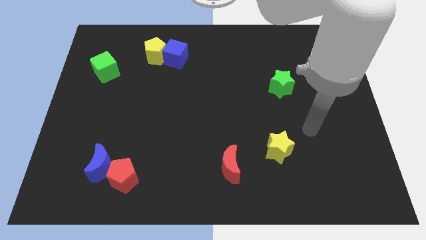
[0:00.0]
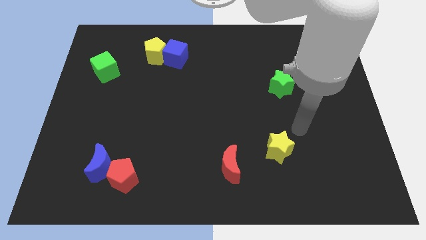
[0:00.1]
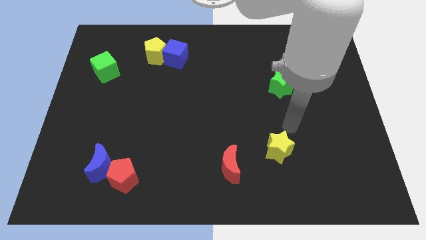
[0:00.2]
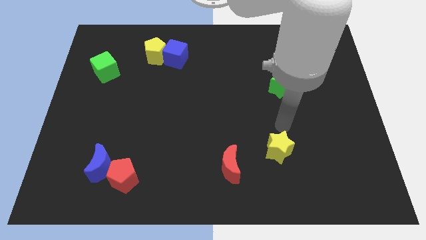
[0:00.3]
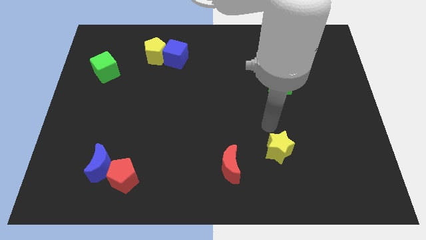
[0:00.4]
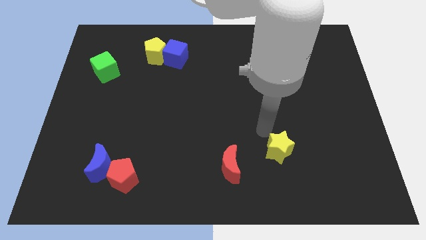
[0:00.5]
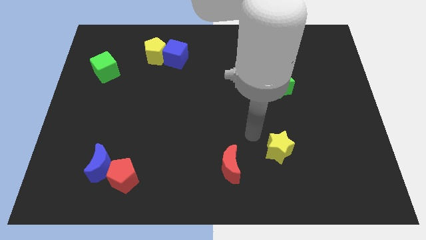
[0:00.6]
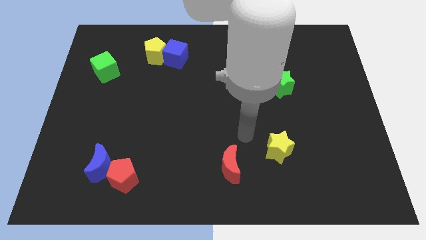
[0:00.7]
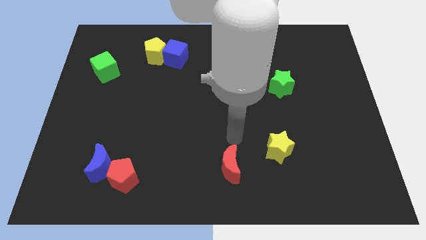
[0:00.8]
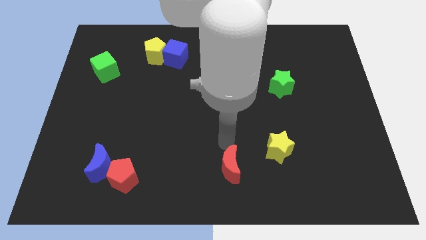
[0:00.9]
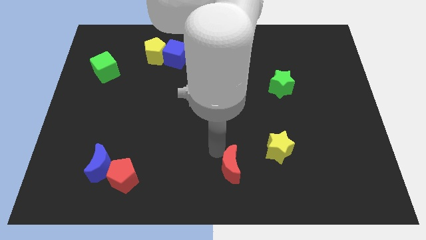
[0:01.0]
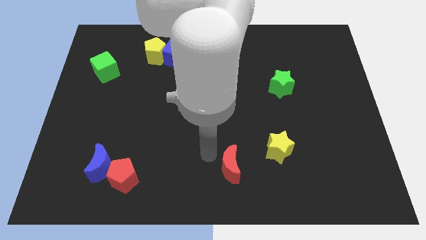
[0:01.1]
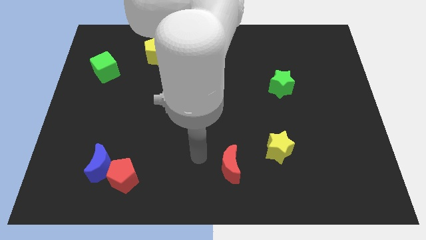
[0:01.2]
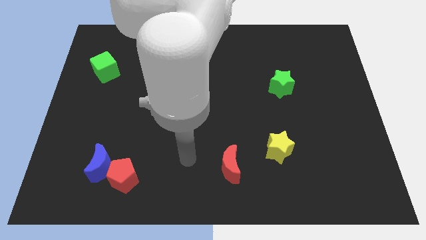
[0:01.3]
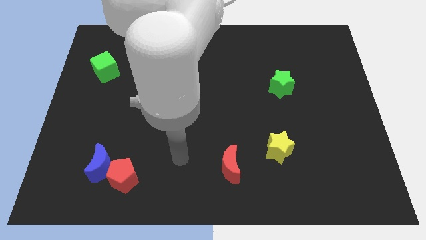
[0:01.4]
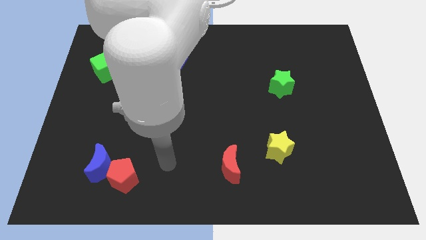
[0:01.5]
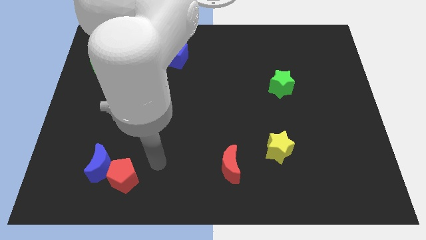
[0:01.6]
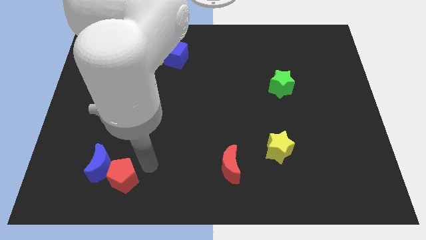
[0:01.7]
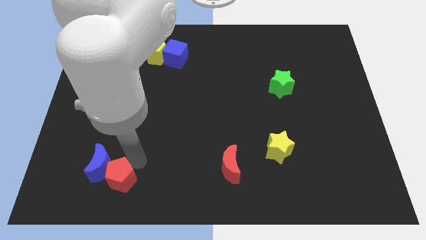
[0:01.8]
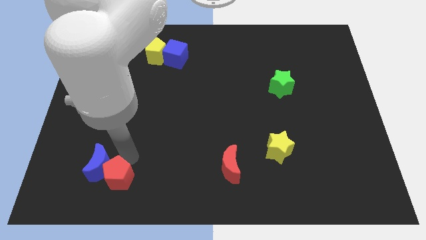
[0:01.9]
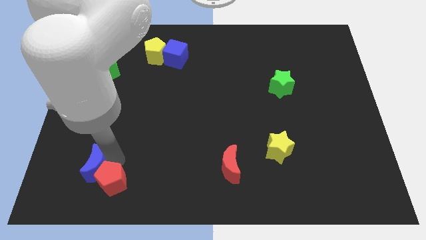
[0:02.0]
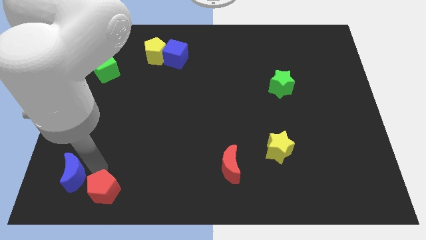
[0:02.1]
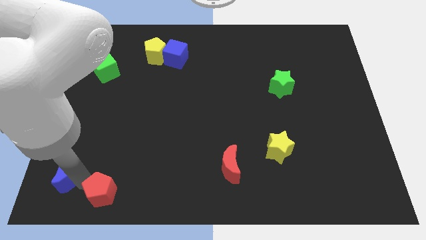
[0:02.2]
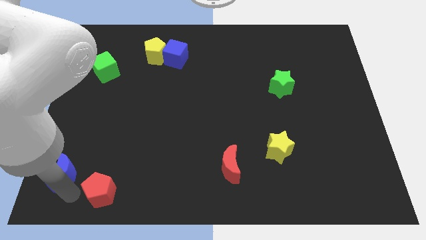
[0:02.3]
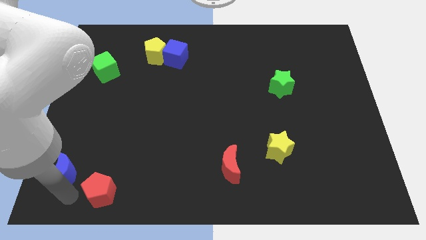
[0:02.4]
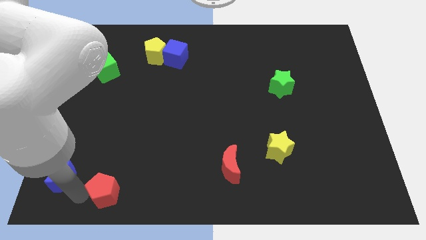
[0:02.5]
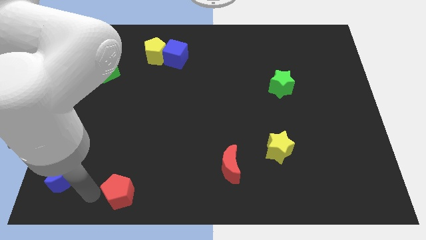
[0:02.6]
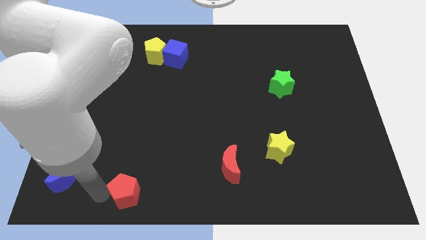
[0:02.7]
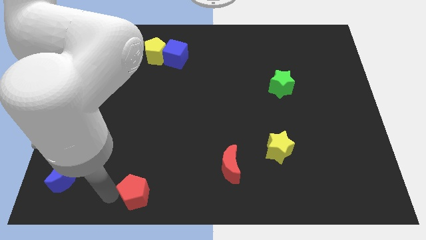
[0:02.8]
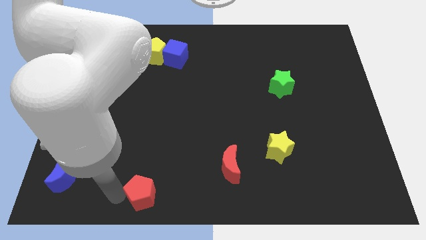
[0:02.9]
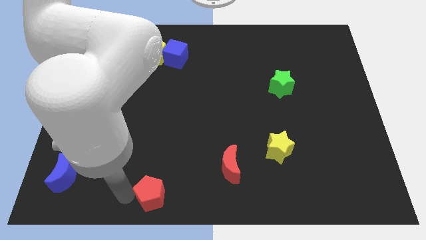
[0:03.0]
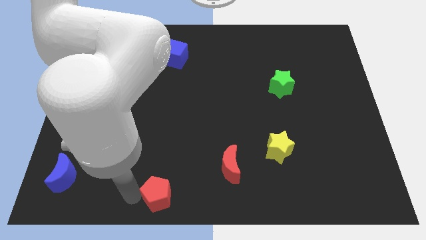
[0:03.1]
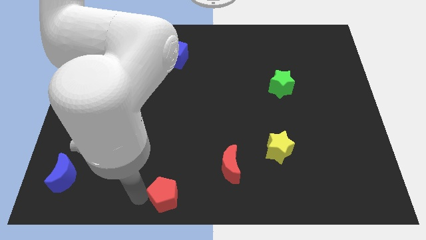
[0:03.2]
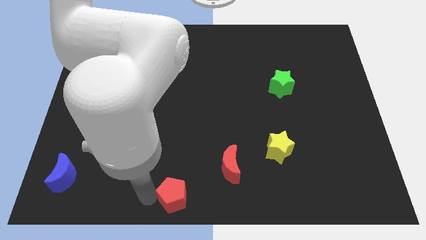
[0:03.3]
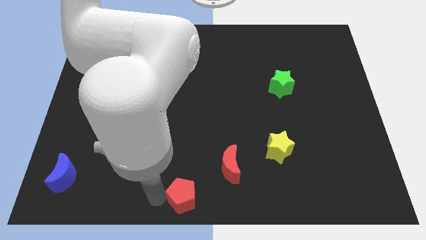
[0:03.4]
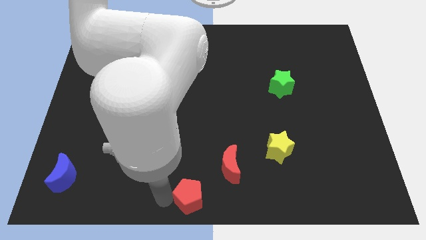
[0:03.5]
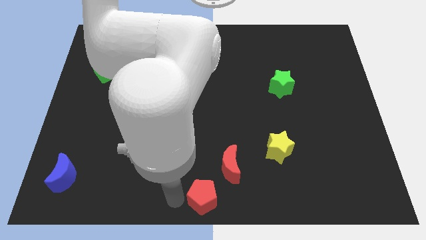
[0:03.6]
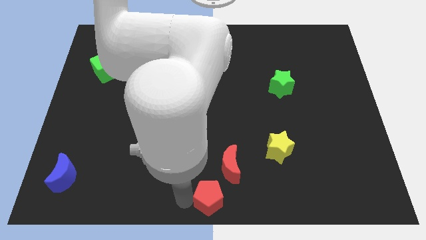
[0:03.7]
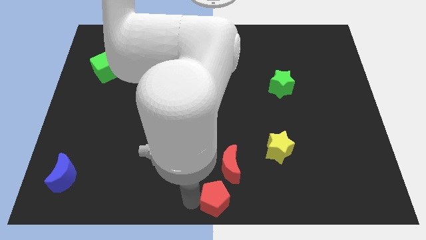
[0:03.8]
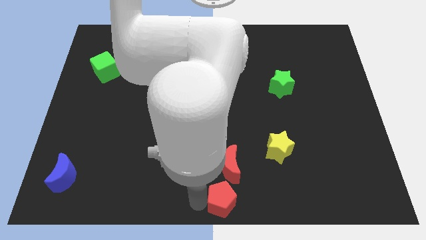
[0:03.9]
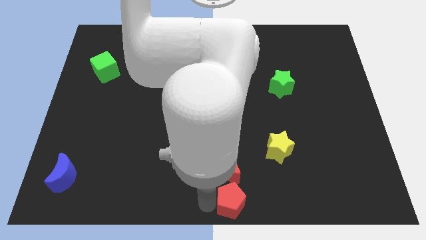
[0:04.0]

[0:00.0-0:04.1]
push the red pentagon to the right

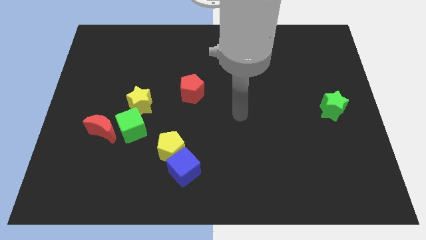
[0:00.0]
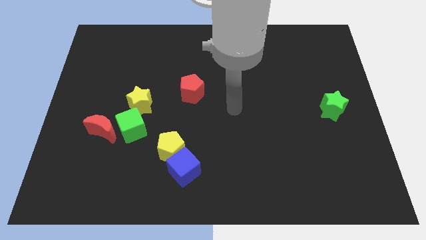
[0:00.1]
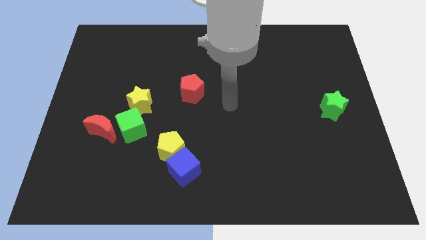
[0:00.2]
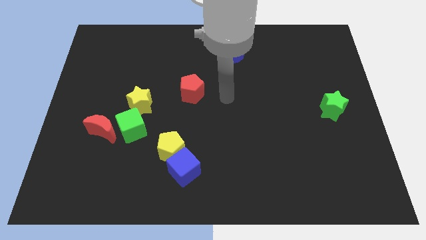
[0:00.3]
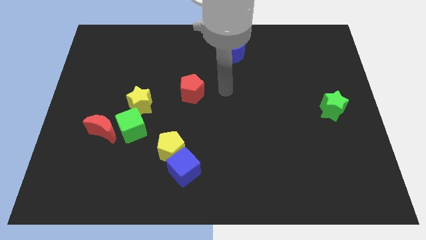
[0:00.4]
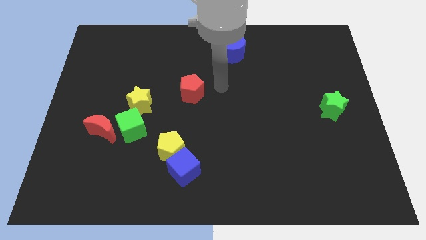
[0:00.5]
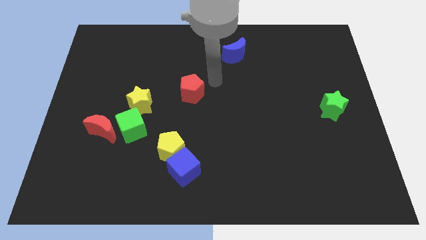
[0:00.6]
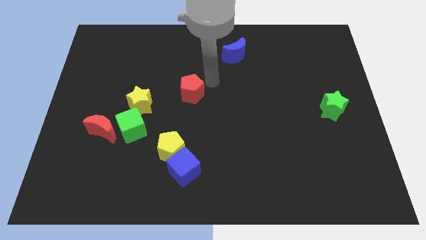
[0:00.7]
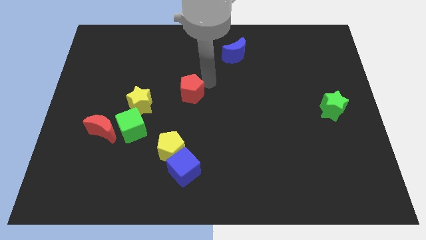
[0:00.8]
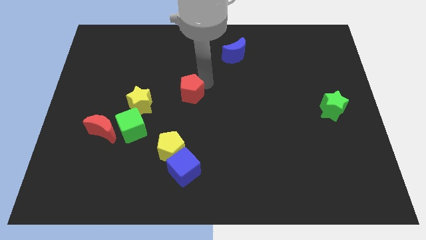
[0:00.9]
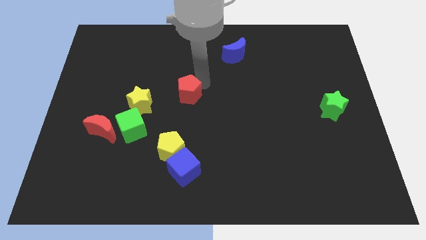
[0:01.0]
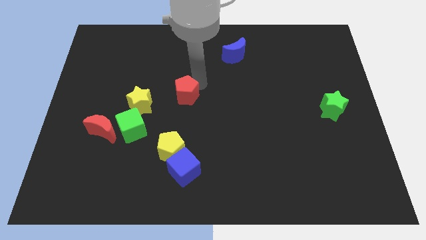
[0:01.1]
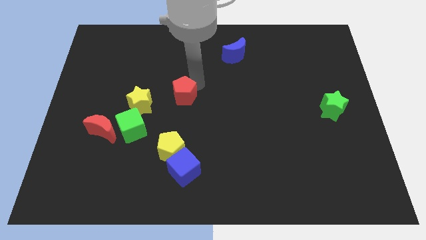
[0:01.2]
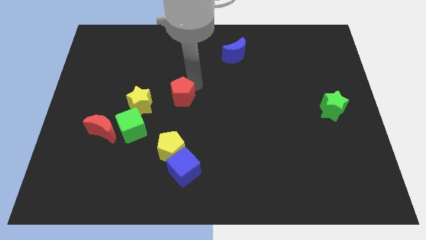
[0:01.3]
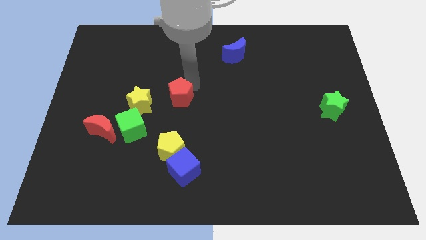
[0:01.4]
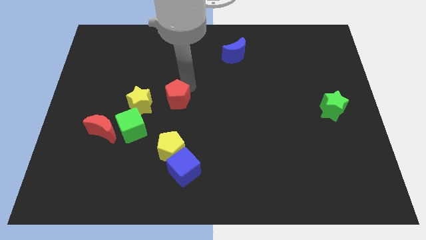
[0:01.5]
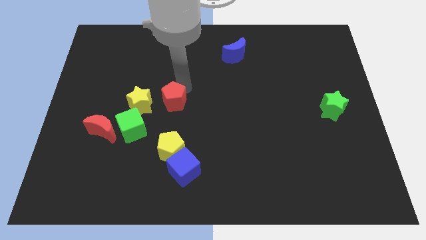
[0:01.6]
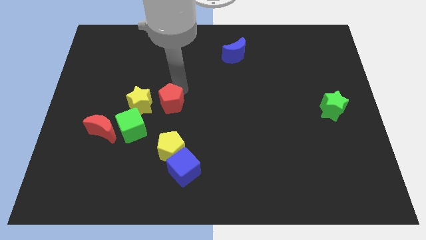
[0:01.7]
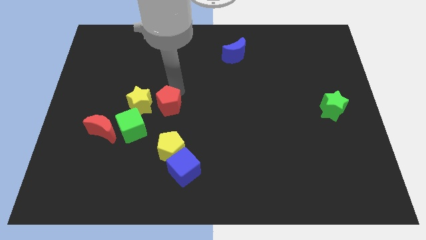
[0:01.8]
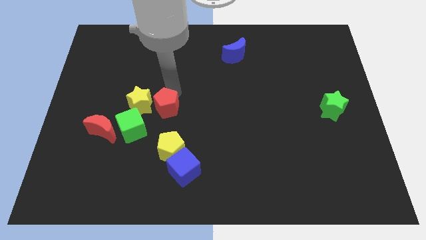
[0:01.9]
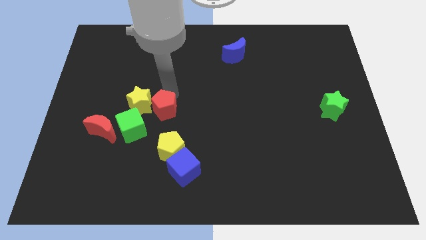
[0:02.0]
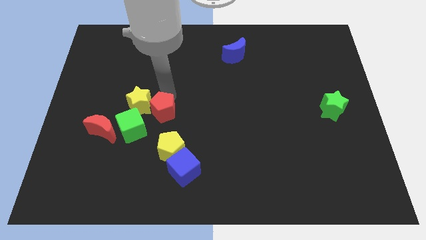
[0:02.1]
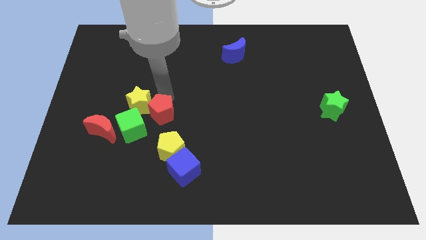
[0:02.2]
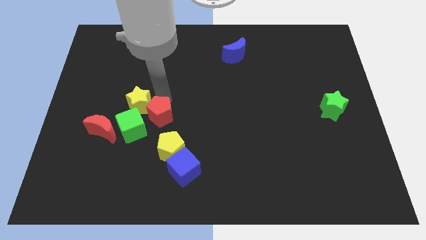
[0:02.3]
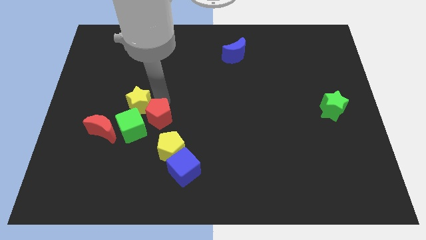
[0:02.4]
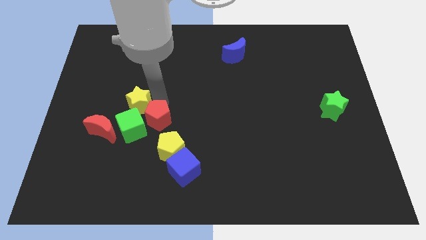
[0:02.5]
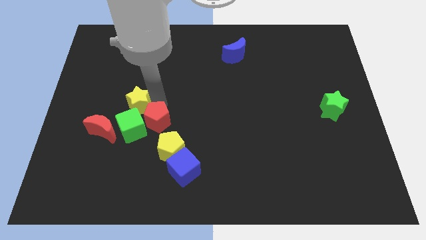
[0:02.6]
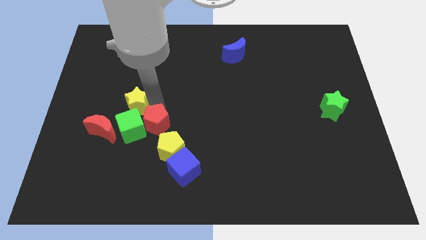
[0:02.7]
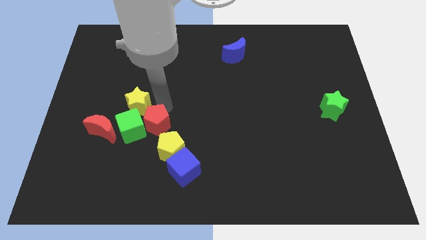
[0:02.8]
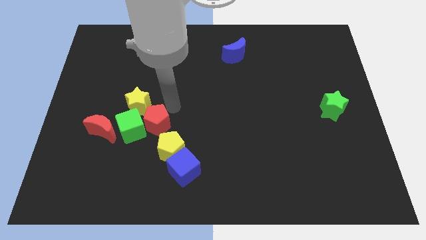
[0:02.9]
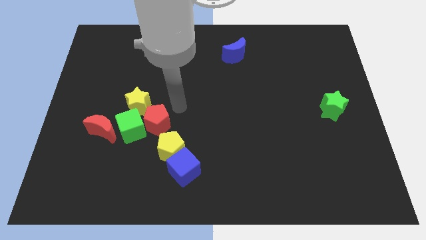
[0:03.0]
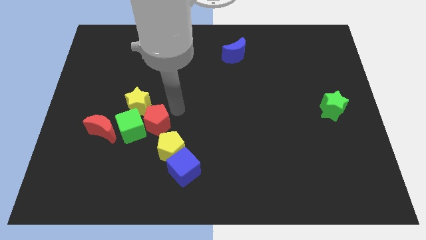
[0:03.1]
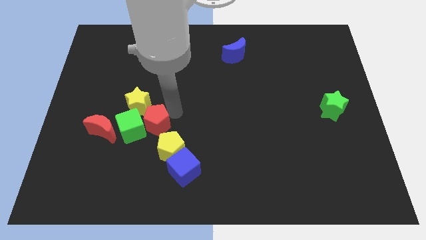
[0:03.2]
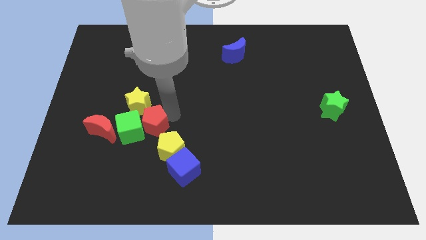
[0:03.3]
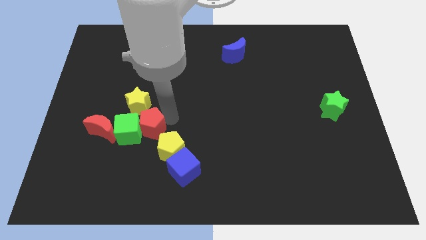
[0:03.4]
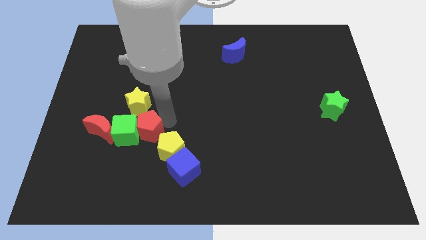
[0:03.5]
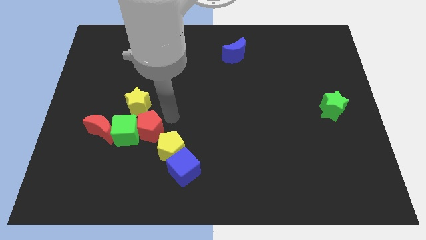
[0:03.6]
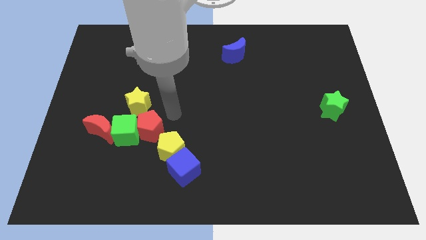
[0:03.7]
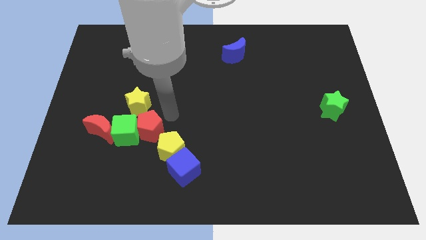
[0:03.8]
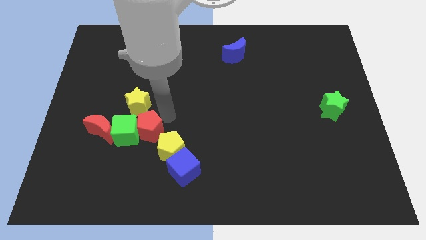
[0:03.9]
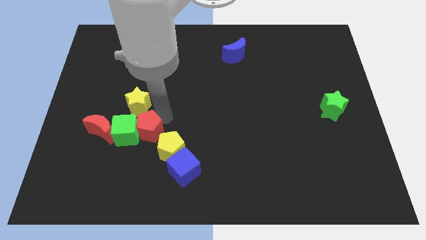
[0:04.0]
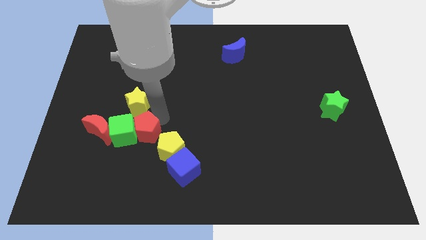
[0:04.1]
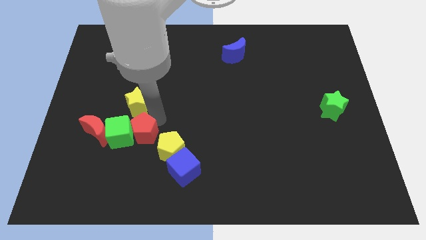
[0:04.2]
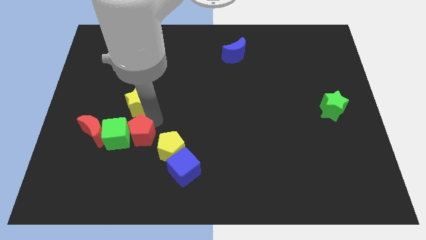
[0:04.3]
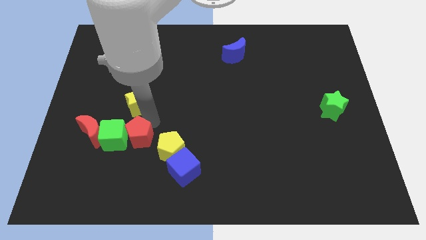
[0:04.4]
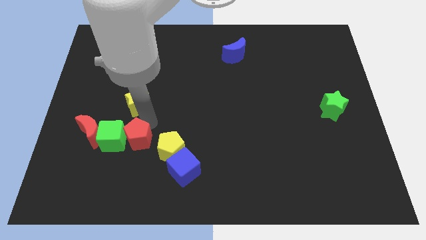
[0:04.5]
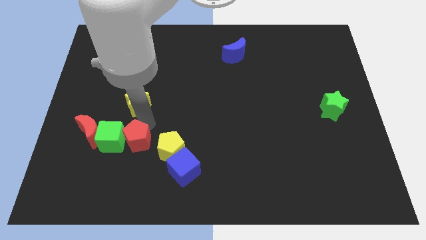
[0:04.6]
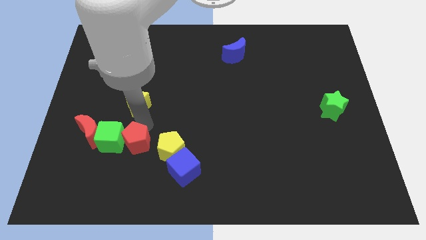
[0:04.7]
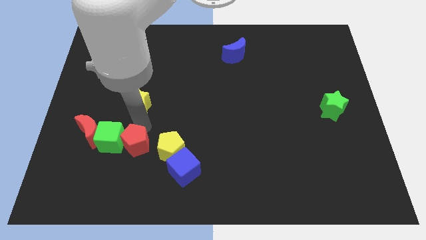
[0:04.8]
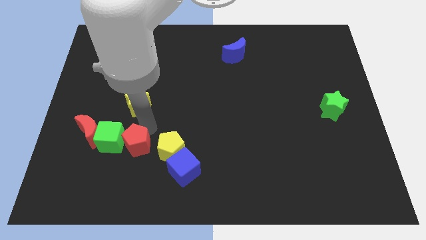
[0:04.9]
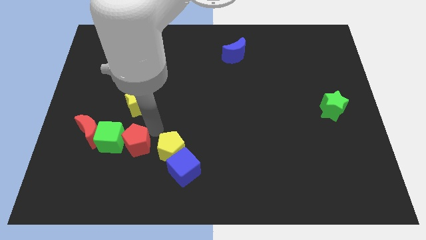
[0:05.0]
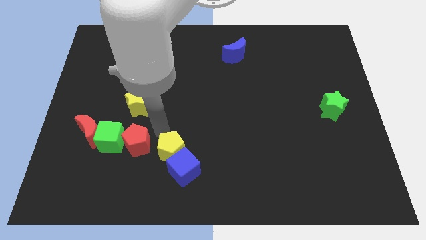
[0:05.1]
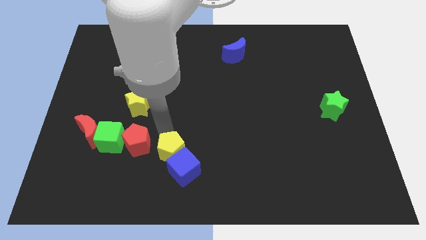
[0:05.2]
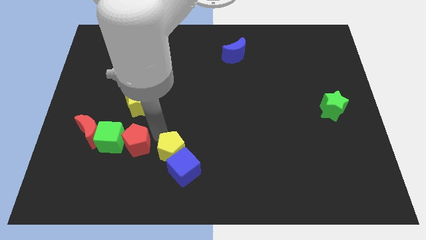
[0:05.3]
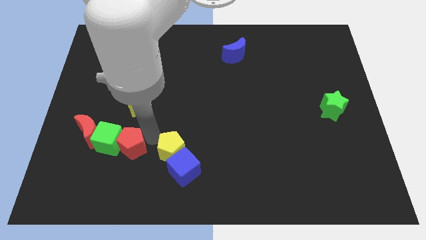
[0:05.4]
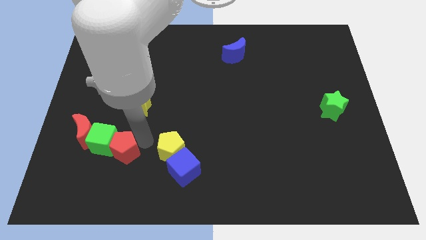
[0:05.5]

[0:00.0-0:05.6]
push the red pentagon down and left
